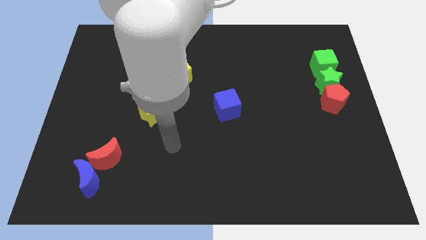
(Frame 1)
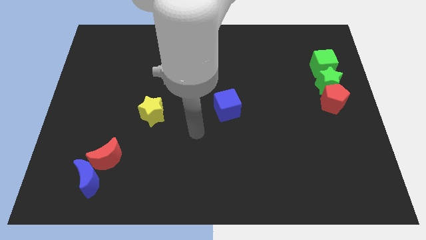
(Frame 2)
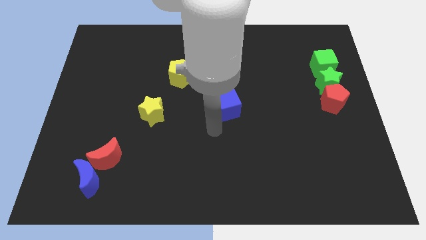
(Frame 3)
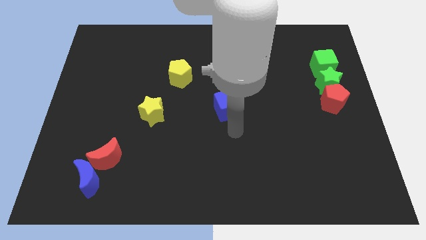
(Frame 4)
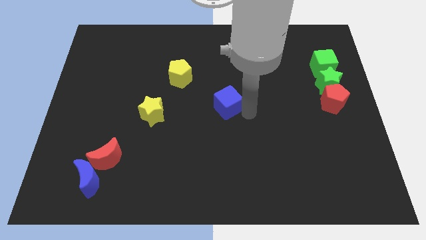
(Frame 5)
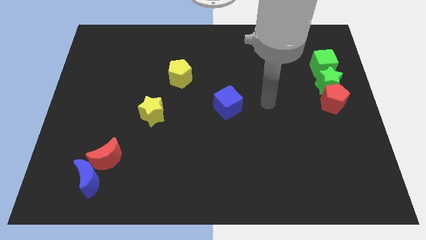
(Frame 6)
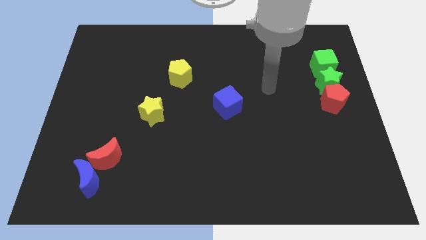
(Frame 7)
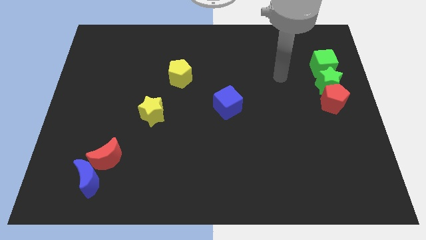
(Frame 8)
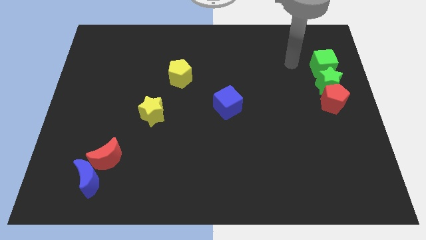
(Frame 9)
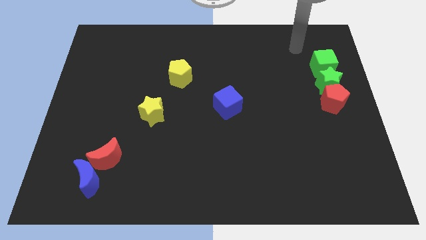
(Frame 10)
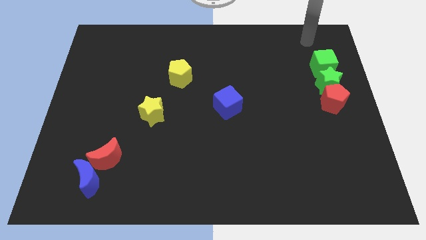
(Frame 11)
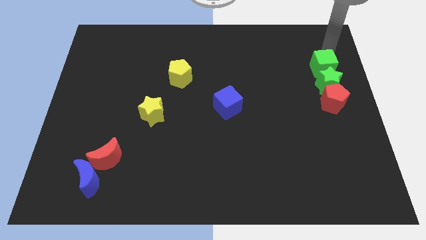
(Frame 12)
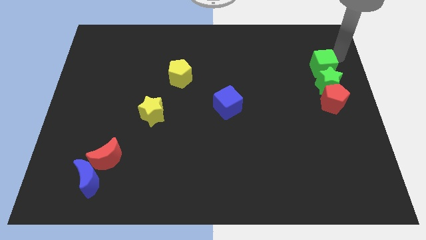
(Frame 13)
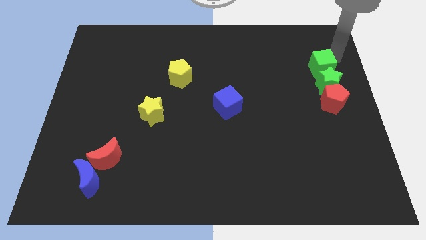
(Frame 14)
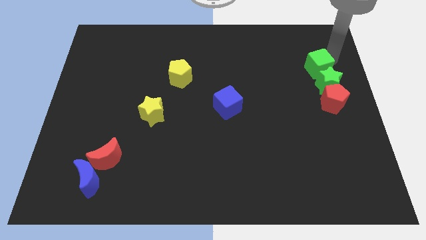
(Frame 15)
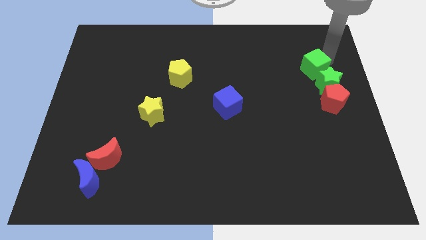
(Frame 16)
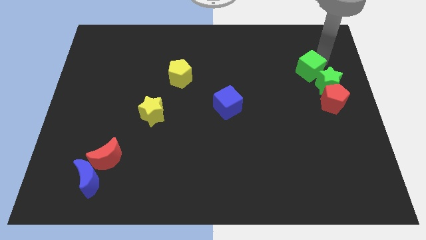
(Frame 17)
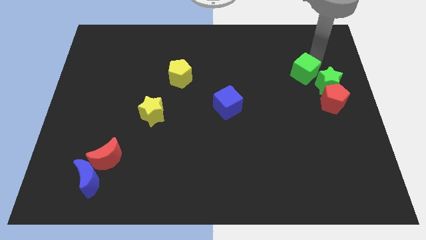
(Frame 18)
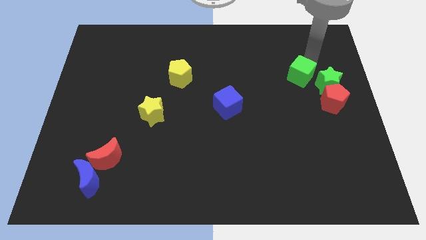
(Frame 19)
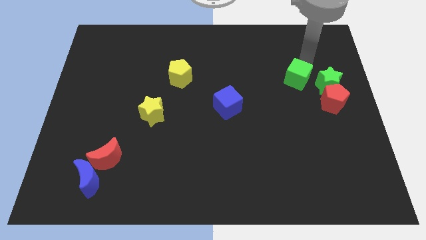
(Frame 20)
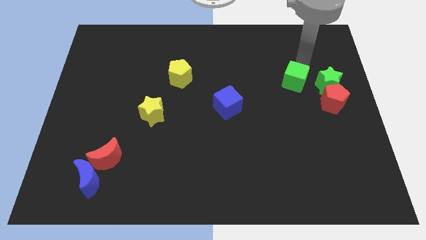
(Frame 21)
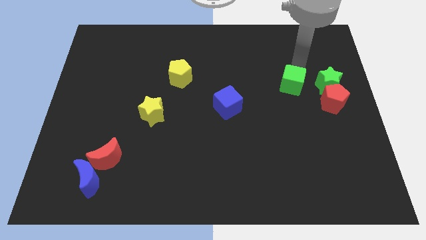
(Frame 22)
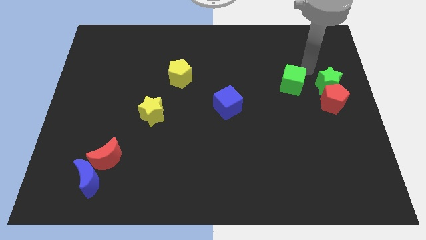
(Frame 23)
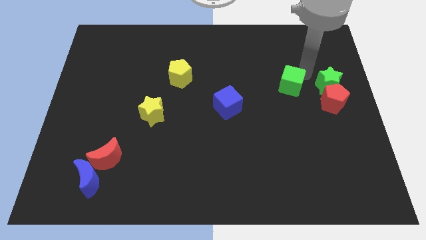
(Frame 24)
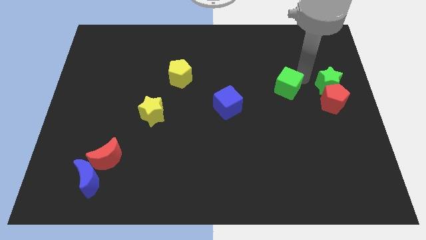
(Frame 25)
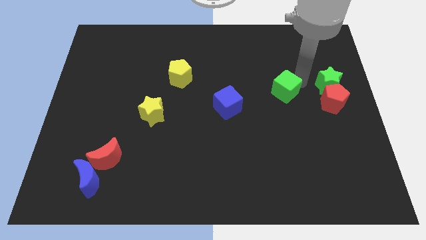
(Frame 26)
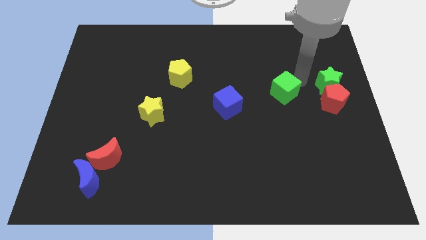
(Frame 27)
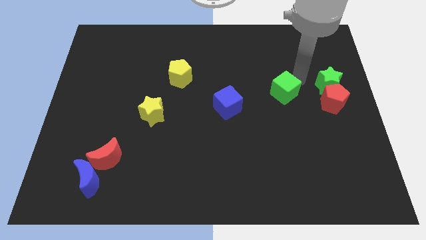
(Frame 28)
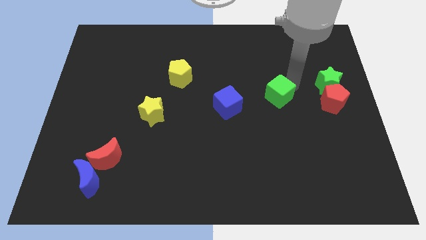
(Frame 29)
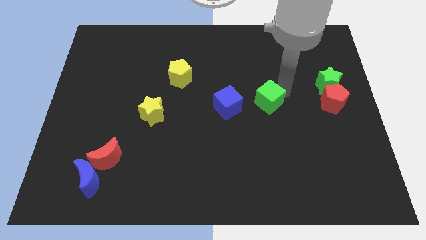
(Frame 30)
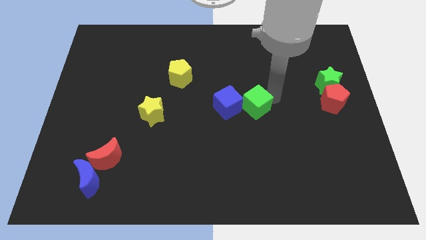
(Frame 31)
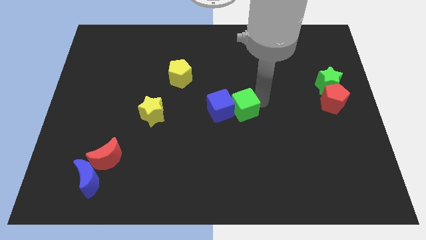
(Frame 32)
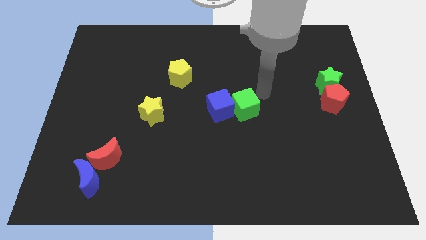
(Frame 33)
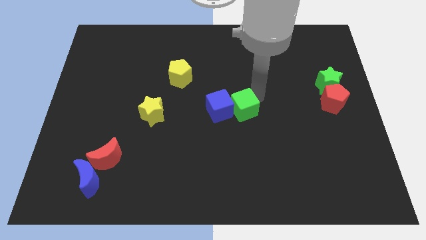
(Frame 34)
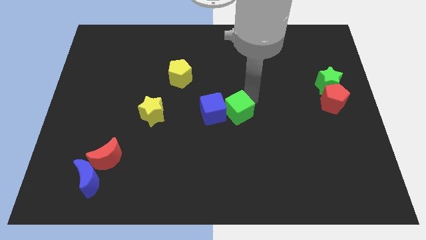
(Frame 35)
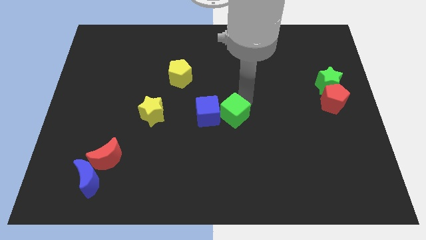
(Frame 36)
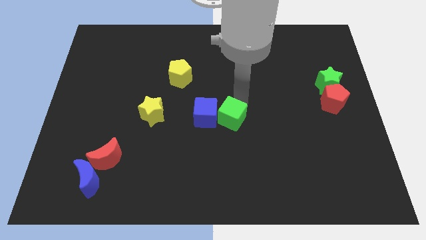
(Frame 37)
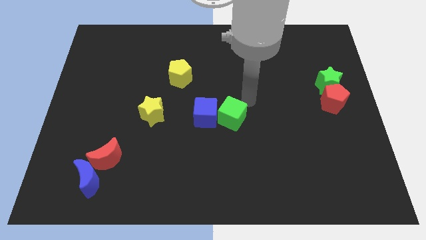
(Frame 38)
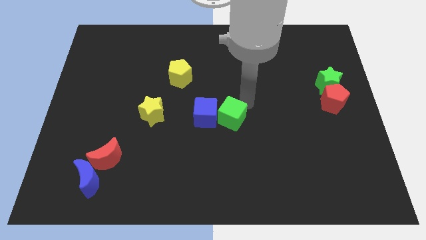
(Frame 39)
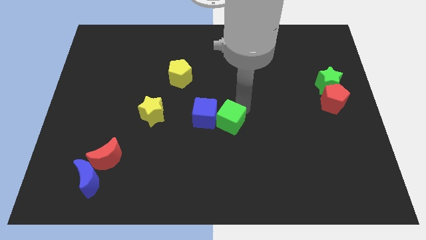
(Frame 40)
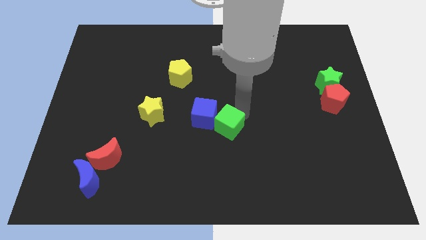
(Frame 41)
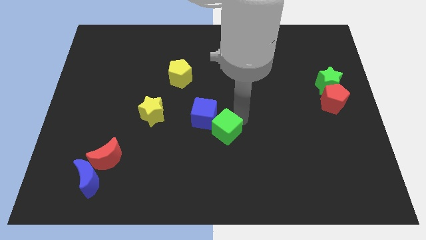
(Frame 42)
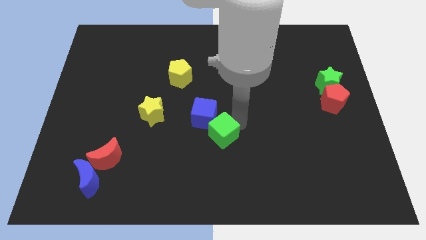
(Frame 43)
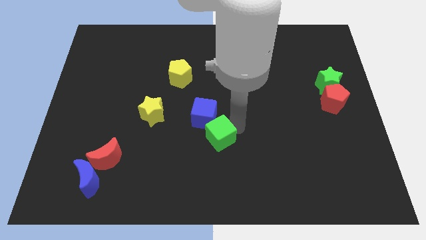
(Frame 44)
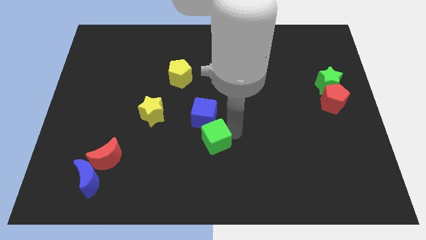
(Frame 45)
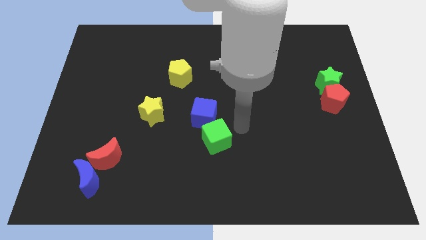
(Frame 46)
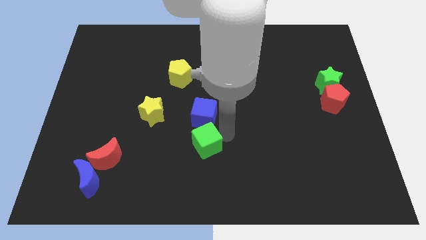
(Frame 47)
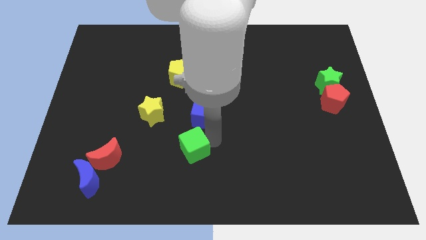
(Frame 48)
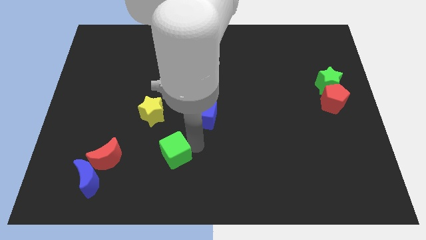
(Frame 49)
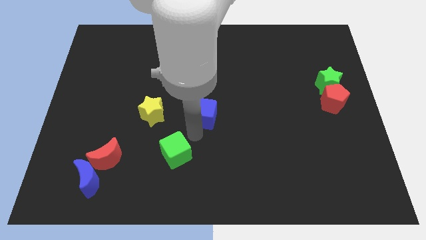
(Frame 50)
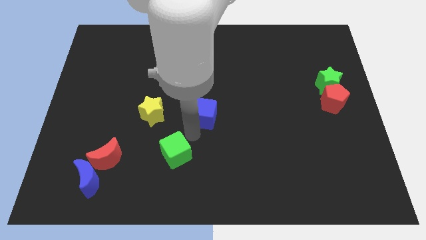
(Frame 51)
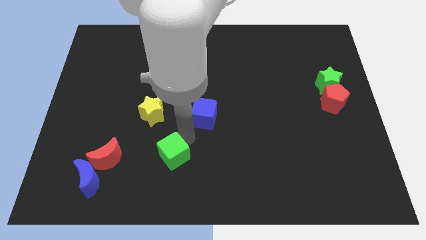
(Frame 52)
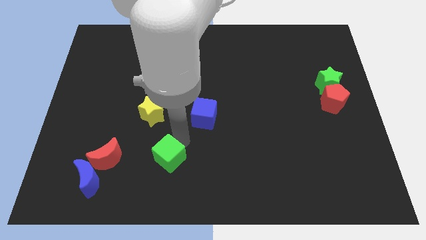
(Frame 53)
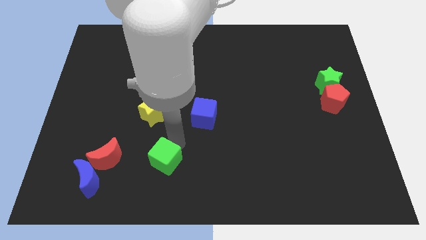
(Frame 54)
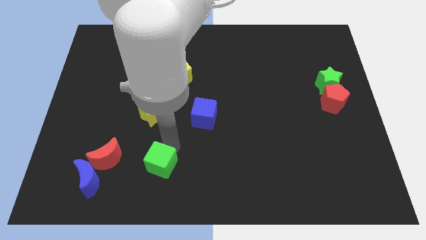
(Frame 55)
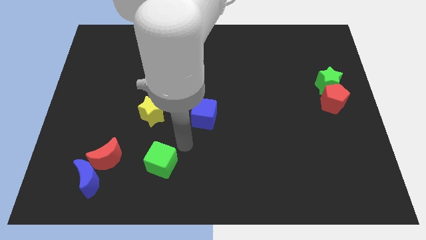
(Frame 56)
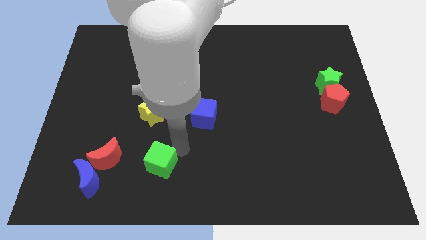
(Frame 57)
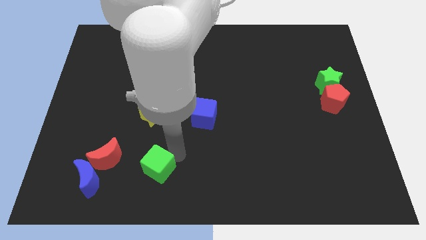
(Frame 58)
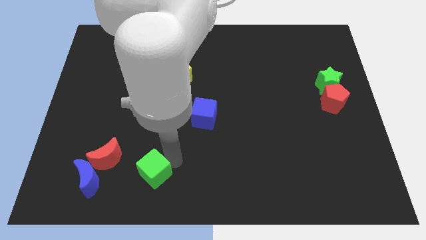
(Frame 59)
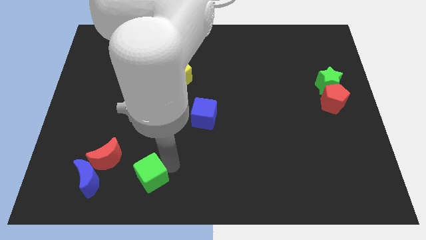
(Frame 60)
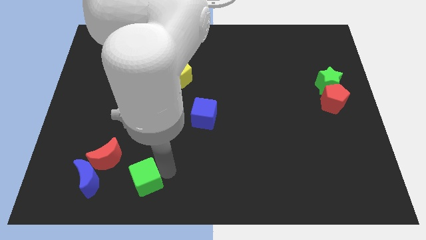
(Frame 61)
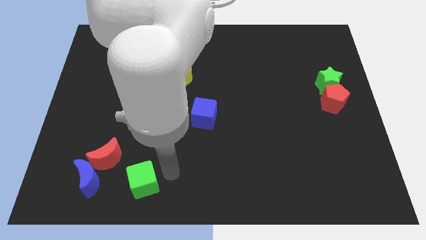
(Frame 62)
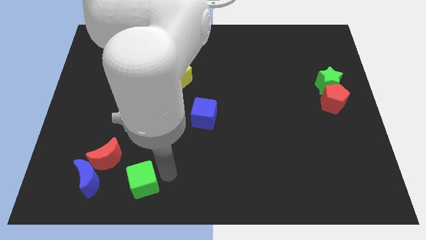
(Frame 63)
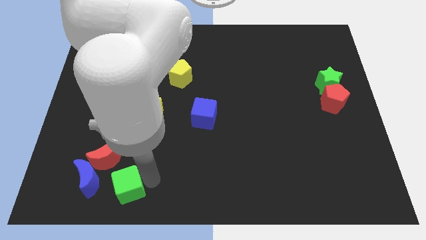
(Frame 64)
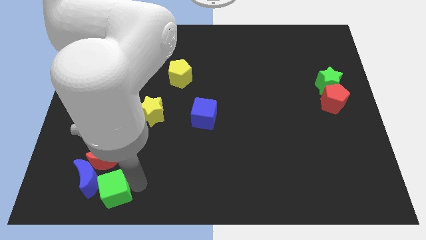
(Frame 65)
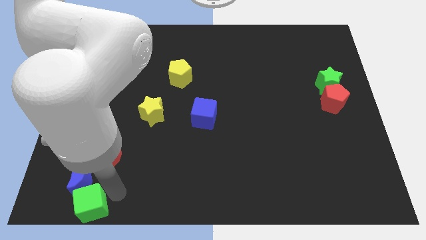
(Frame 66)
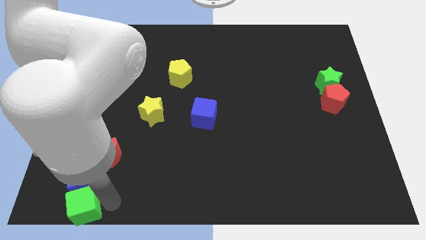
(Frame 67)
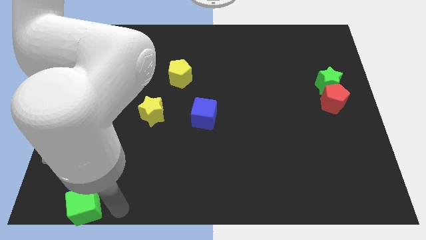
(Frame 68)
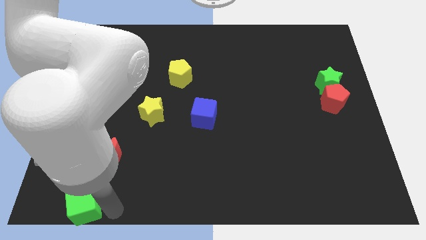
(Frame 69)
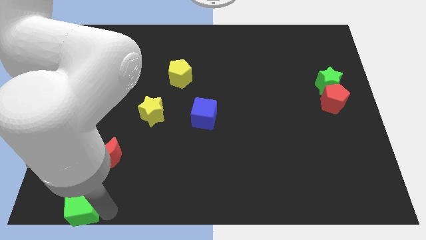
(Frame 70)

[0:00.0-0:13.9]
move the green cube to the lower left corner
